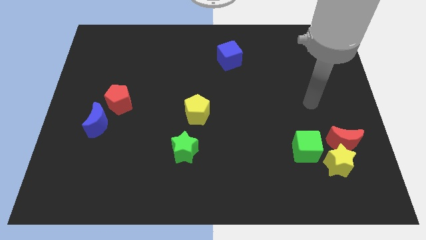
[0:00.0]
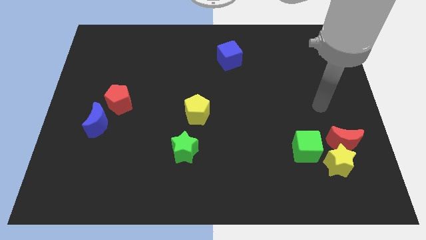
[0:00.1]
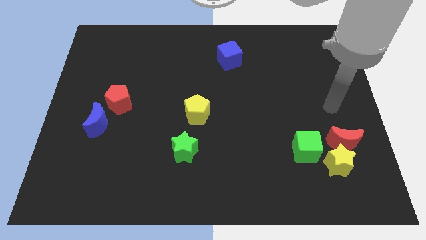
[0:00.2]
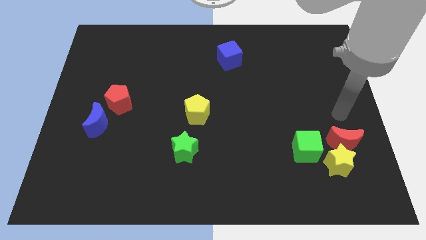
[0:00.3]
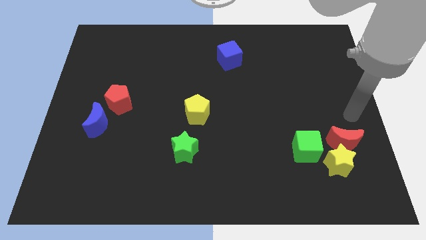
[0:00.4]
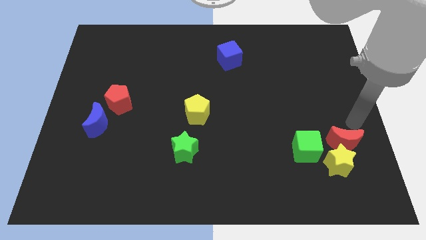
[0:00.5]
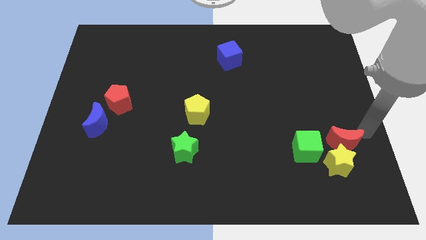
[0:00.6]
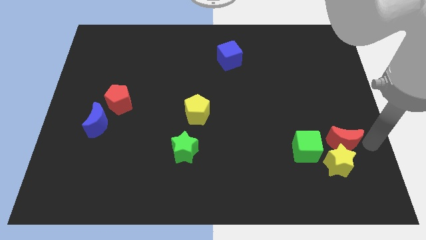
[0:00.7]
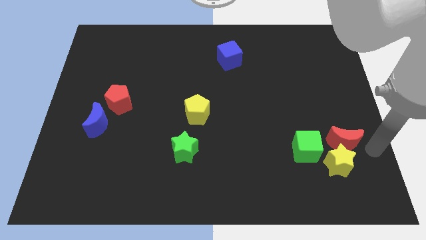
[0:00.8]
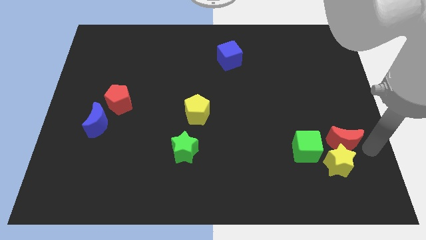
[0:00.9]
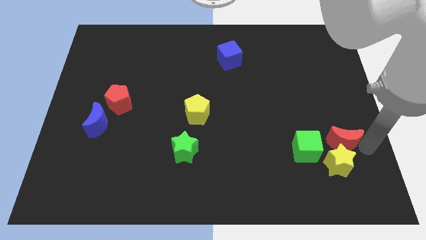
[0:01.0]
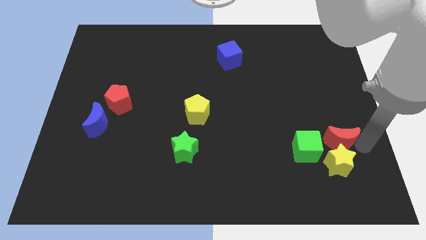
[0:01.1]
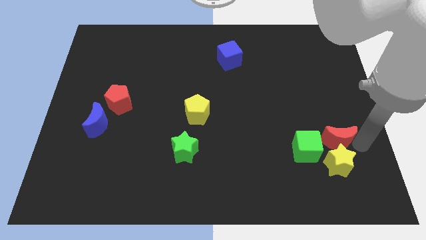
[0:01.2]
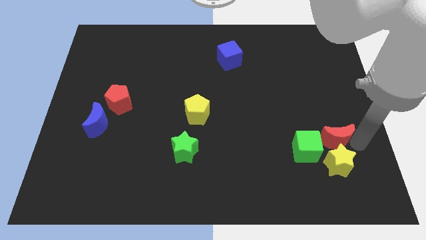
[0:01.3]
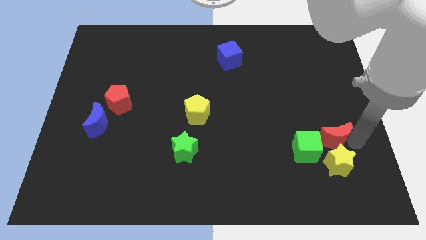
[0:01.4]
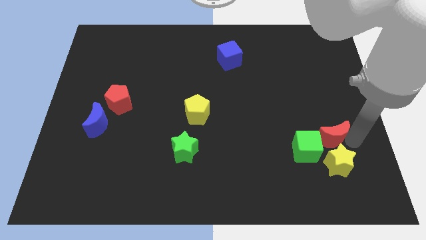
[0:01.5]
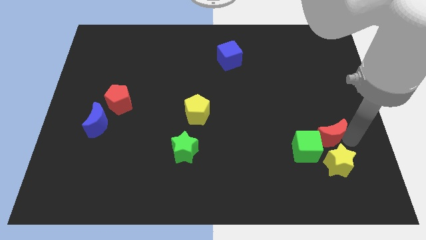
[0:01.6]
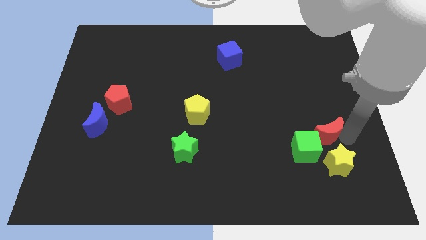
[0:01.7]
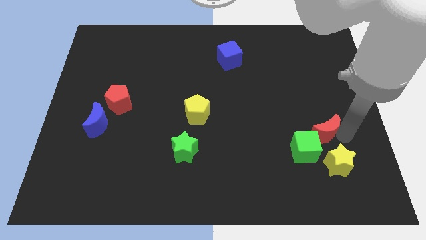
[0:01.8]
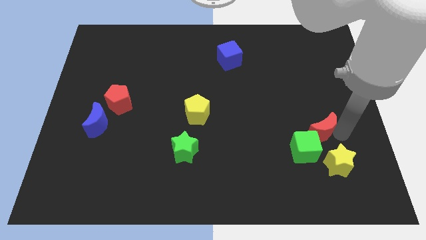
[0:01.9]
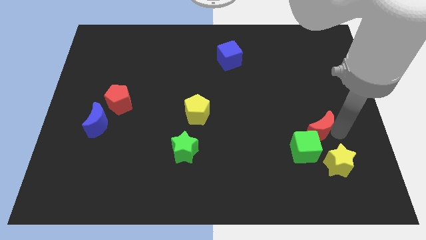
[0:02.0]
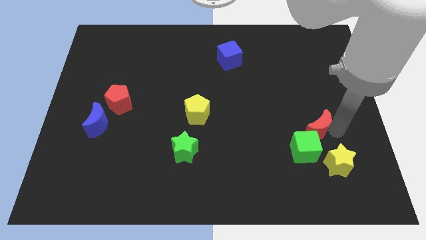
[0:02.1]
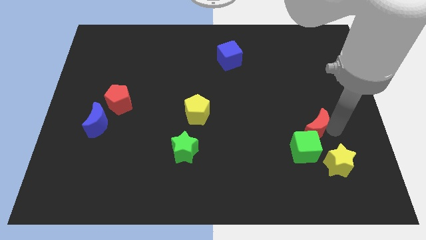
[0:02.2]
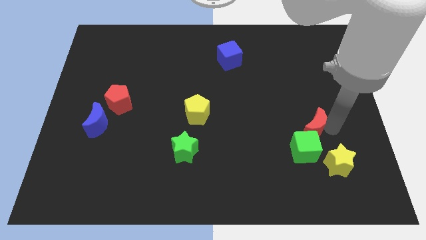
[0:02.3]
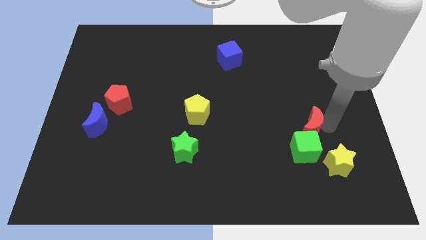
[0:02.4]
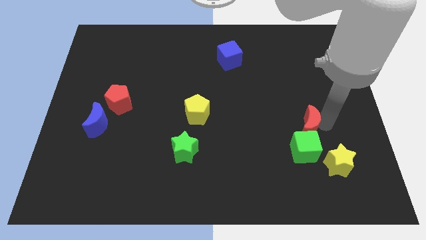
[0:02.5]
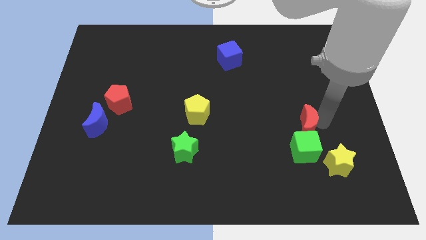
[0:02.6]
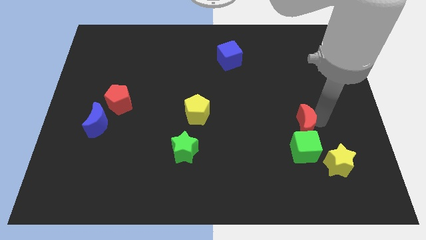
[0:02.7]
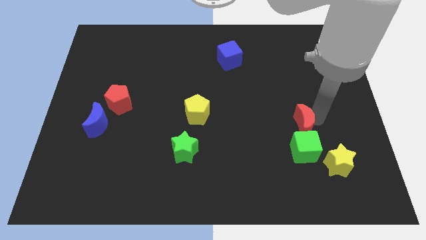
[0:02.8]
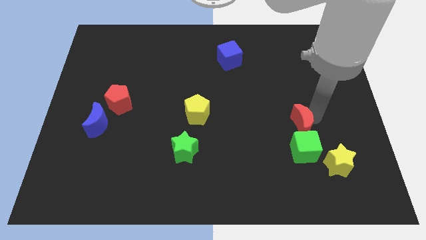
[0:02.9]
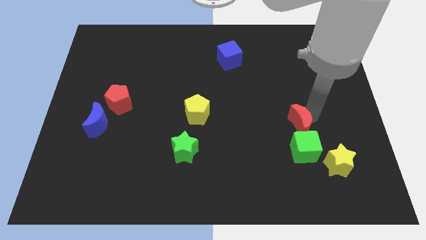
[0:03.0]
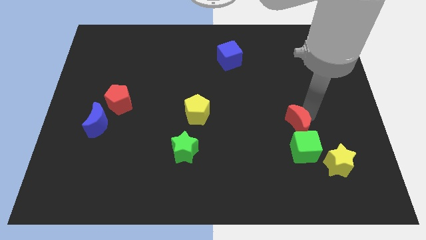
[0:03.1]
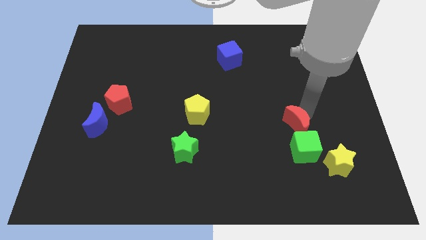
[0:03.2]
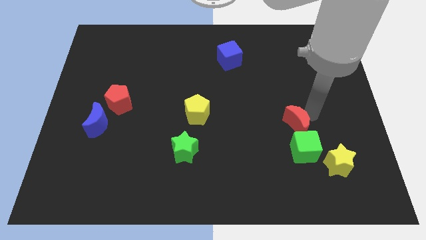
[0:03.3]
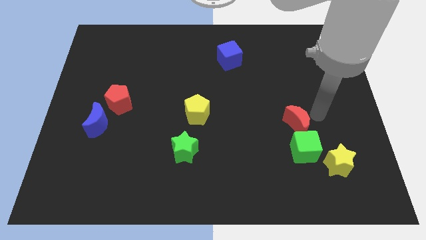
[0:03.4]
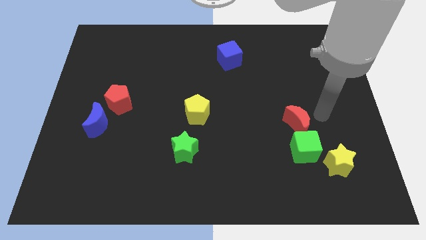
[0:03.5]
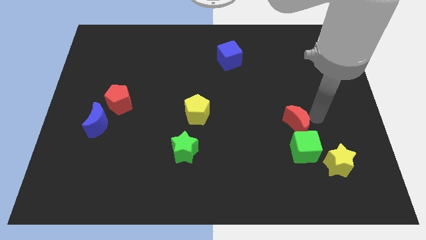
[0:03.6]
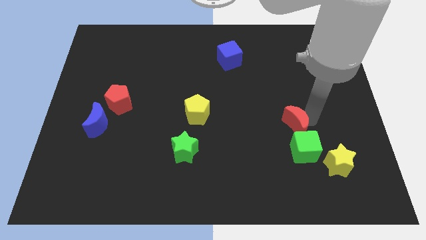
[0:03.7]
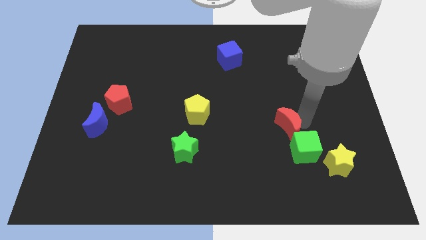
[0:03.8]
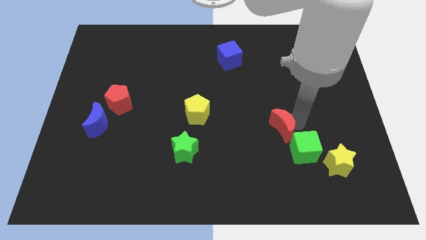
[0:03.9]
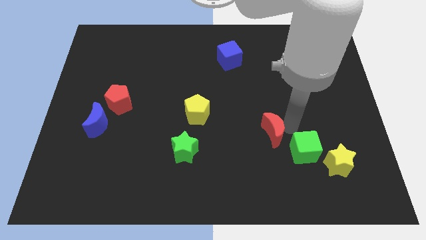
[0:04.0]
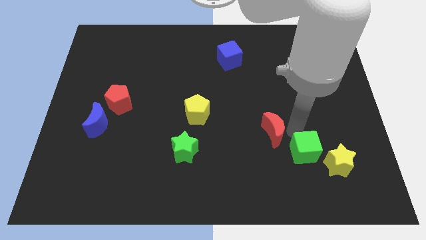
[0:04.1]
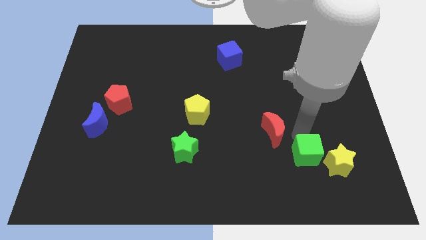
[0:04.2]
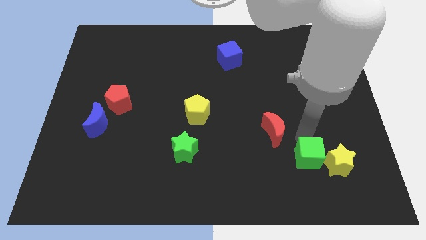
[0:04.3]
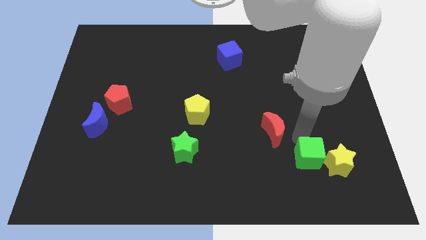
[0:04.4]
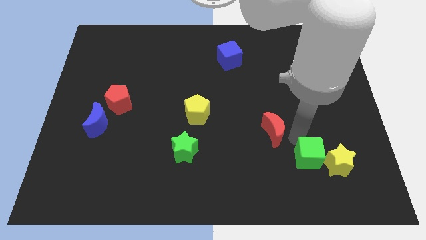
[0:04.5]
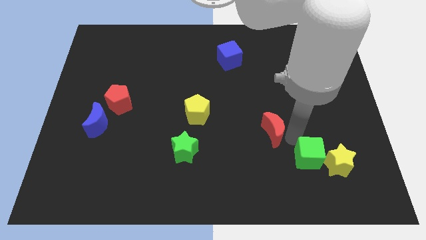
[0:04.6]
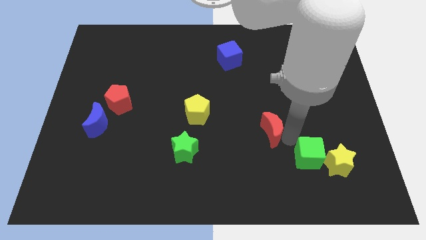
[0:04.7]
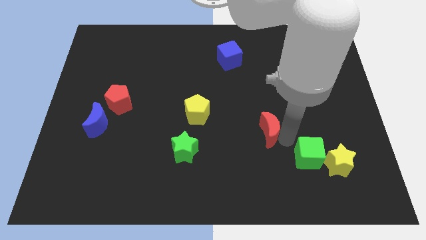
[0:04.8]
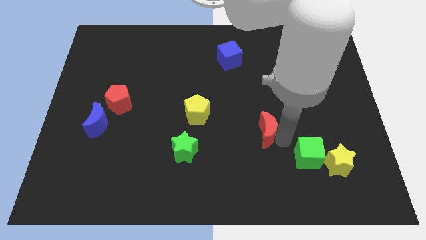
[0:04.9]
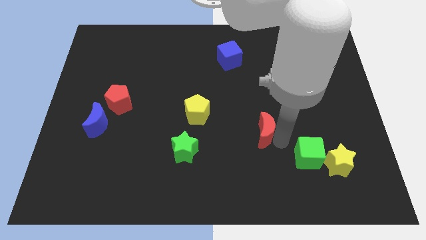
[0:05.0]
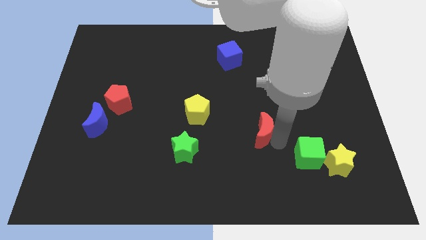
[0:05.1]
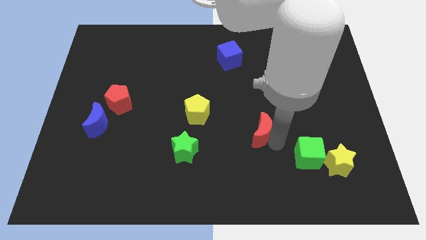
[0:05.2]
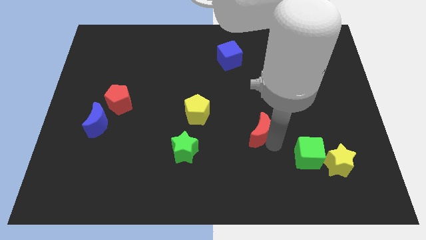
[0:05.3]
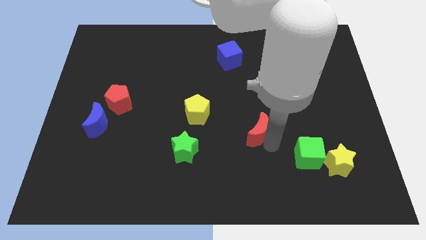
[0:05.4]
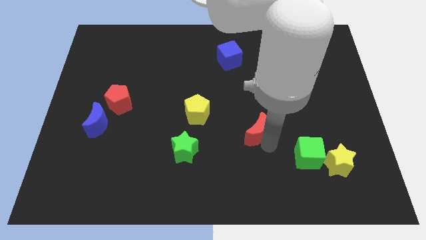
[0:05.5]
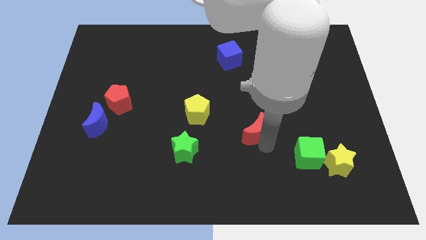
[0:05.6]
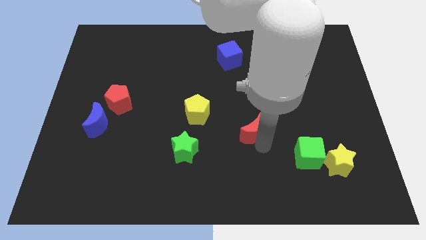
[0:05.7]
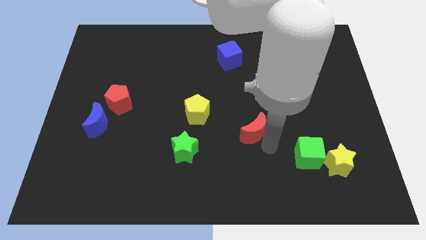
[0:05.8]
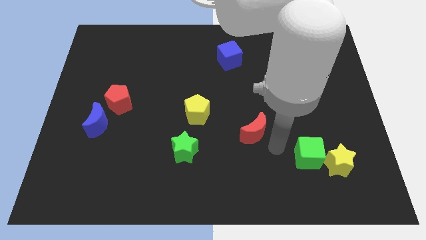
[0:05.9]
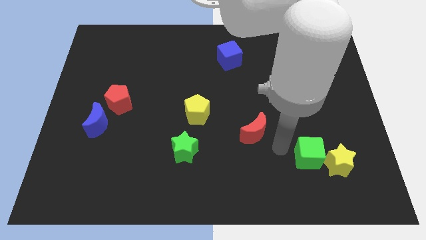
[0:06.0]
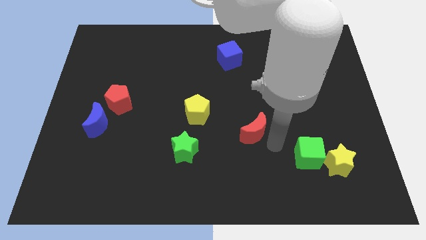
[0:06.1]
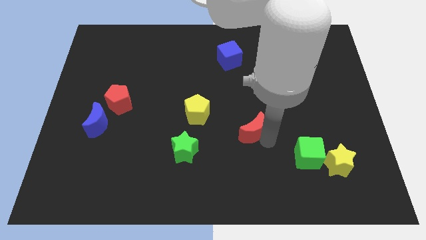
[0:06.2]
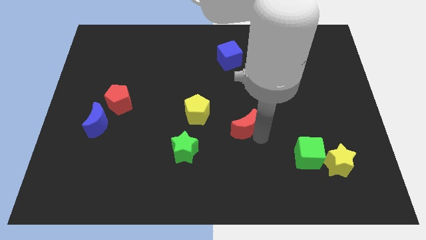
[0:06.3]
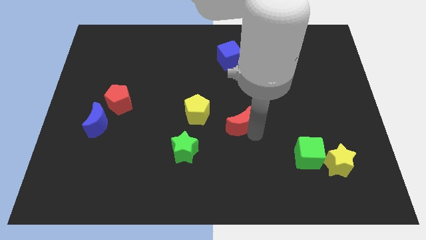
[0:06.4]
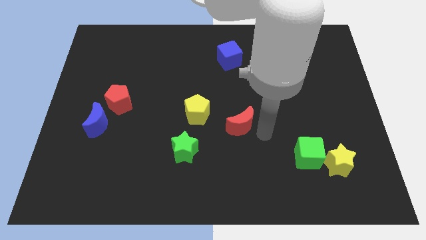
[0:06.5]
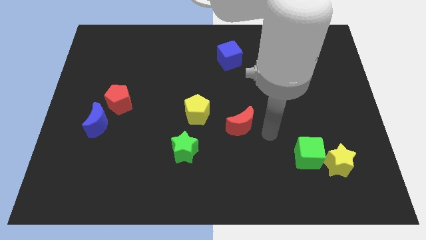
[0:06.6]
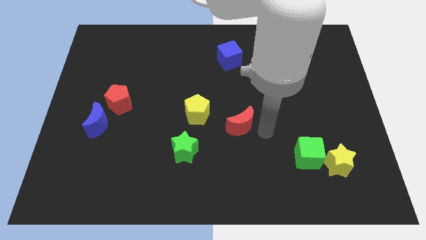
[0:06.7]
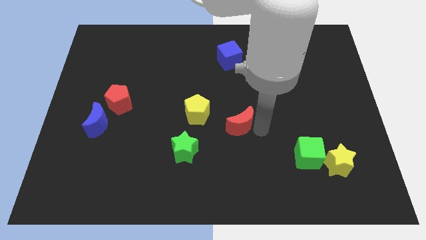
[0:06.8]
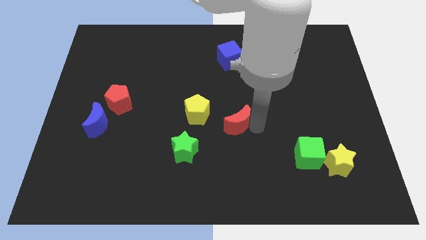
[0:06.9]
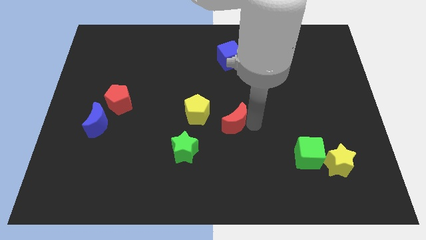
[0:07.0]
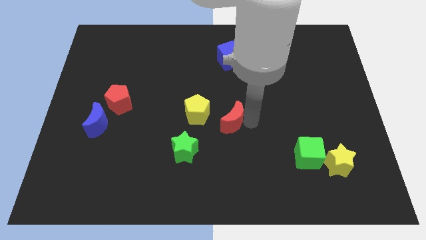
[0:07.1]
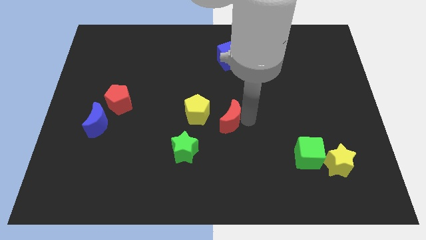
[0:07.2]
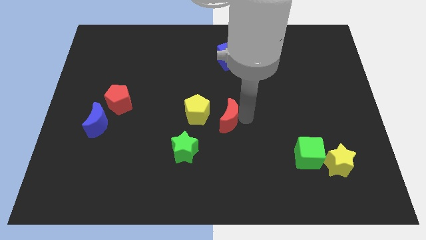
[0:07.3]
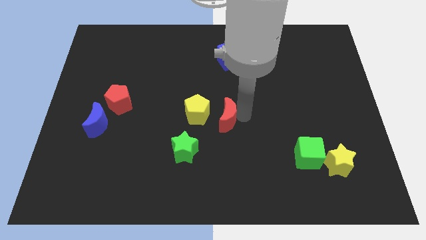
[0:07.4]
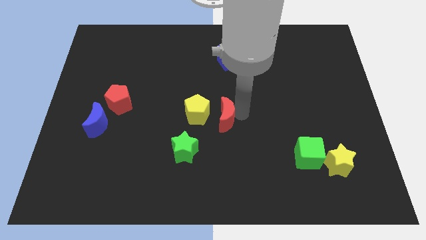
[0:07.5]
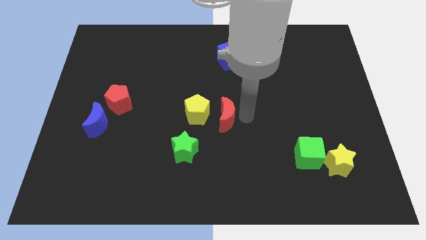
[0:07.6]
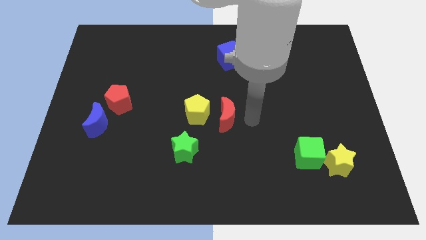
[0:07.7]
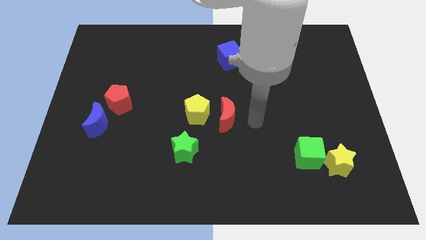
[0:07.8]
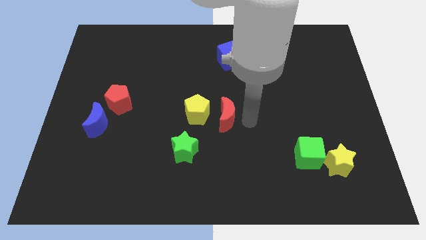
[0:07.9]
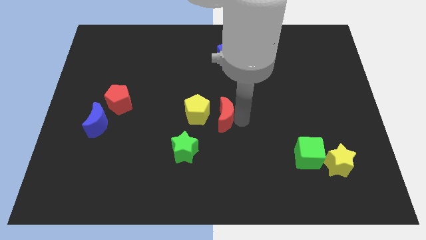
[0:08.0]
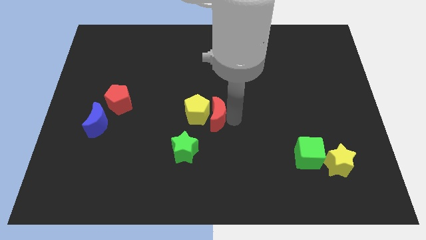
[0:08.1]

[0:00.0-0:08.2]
put the red moon next to the yellow pentagon
